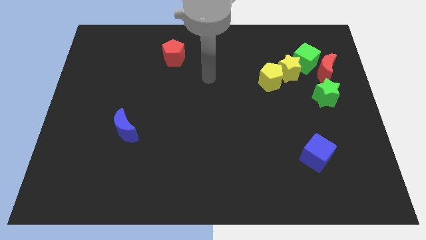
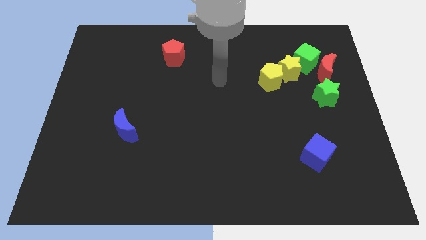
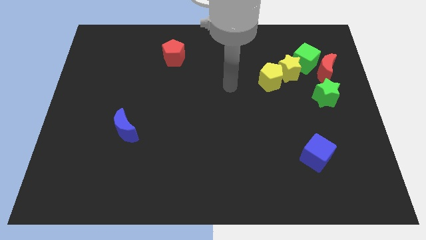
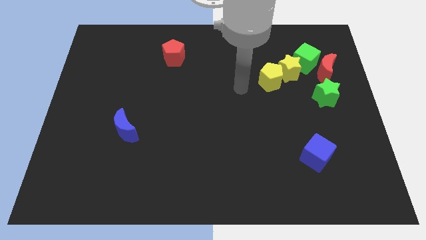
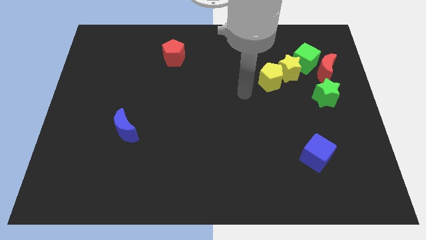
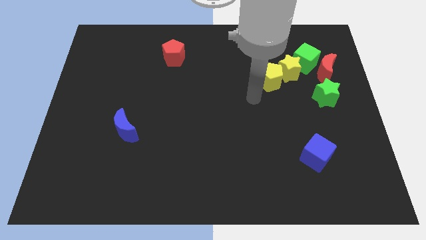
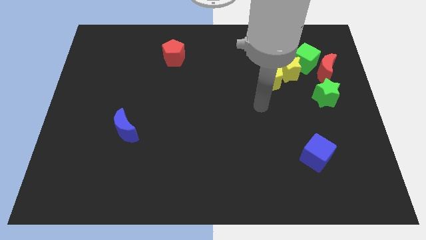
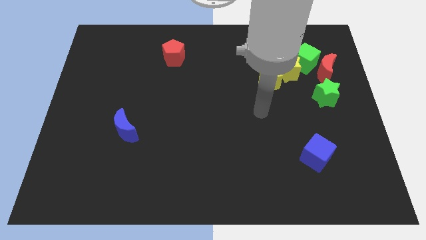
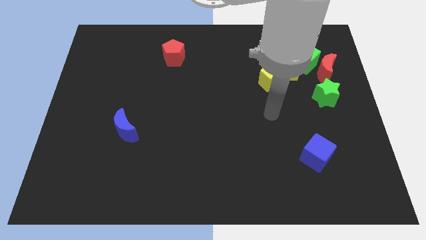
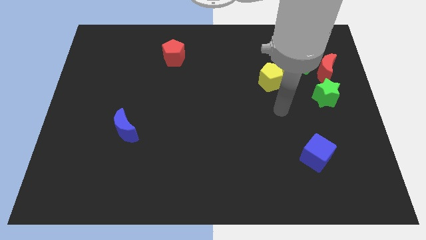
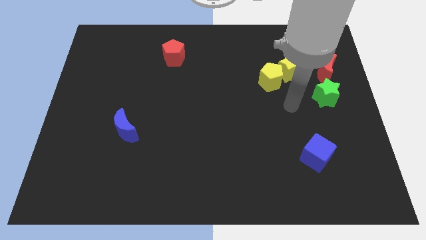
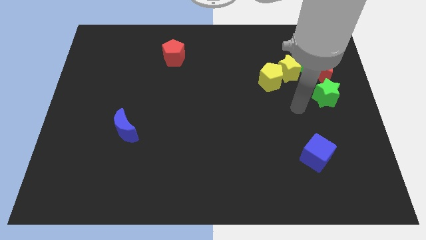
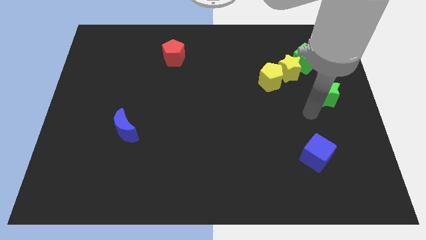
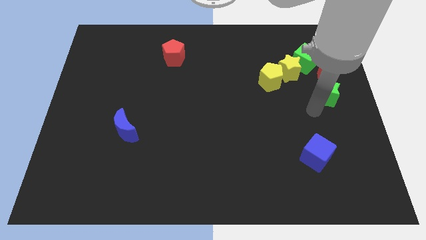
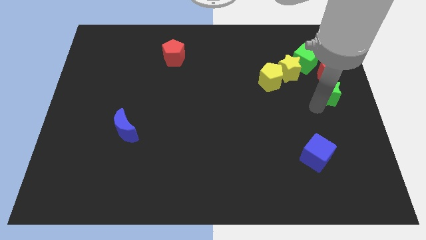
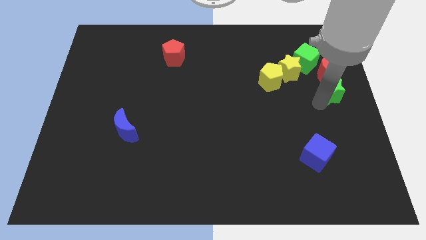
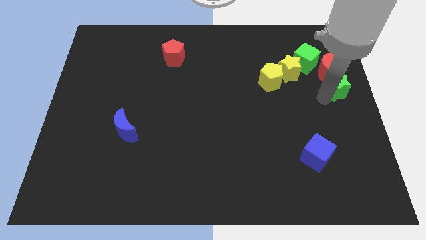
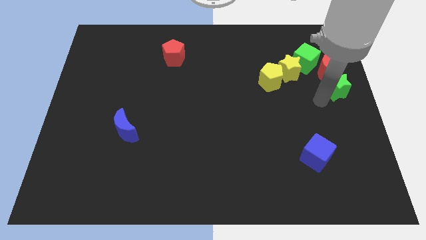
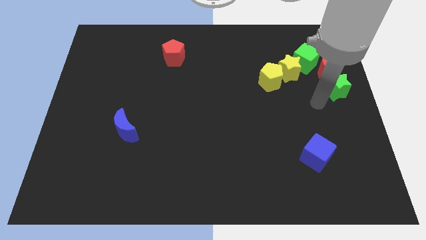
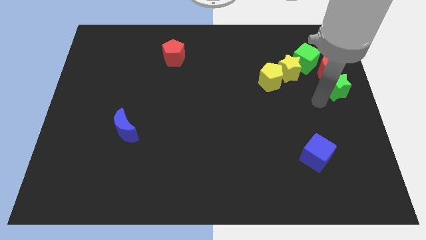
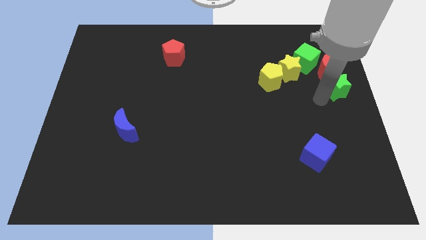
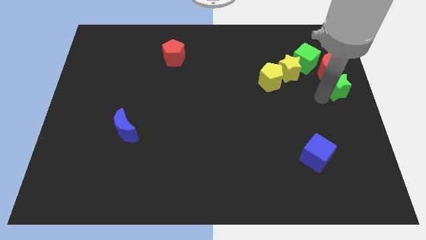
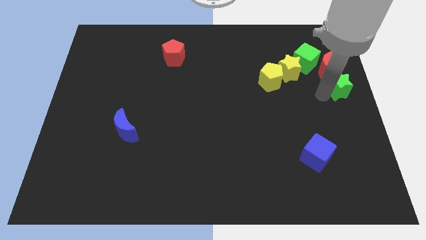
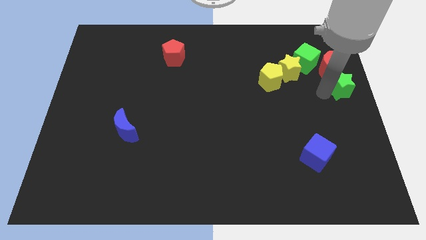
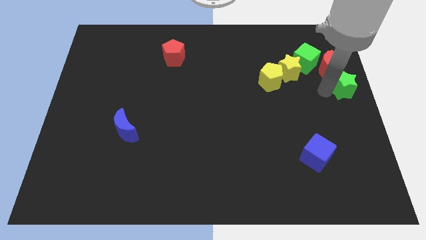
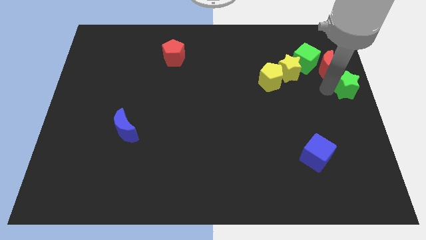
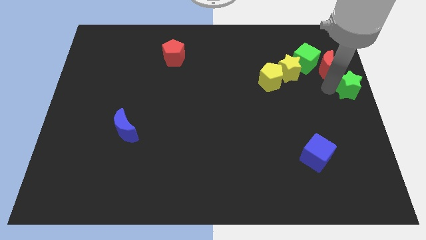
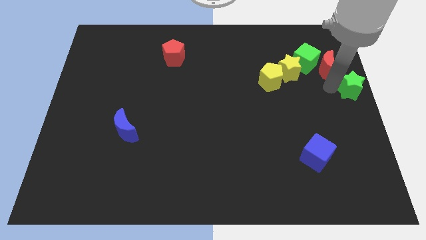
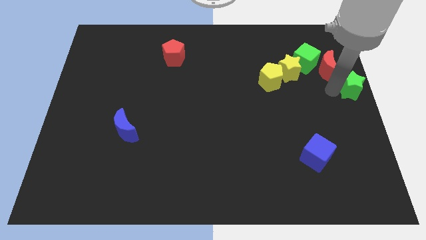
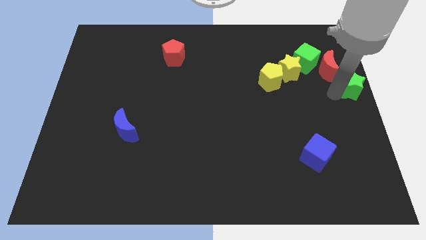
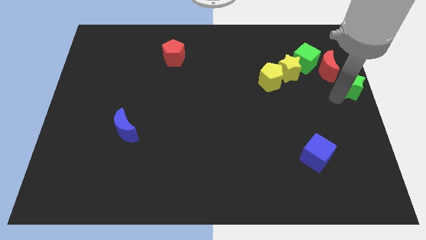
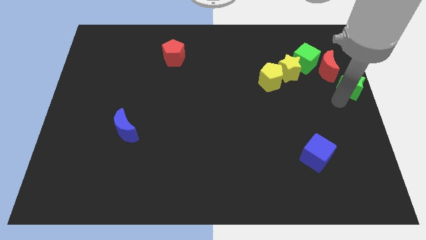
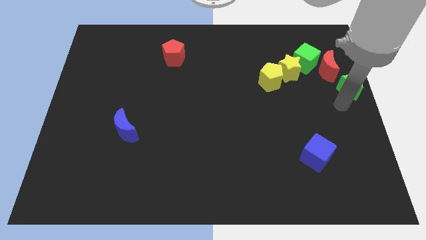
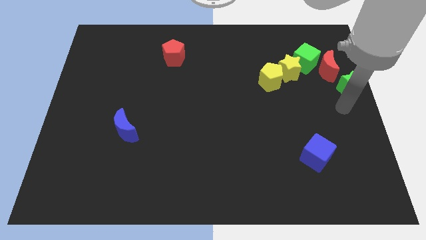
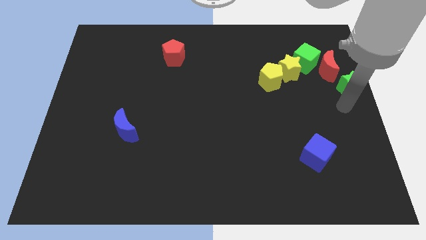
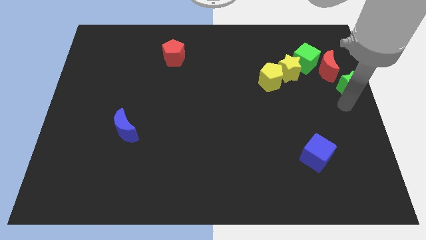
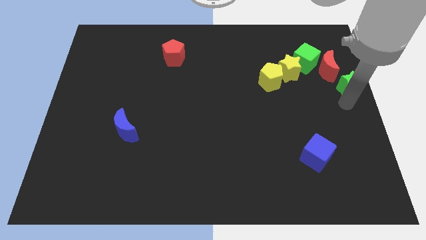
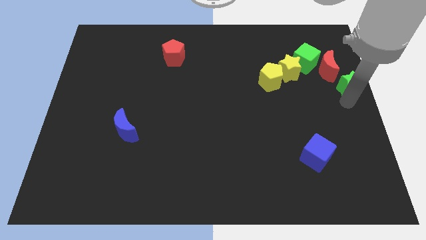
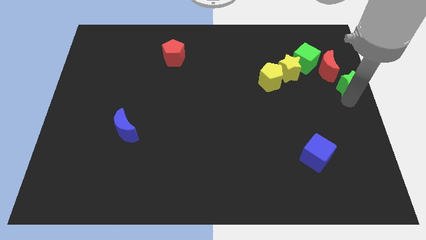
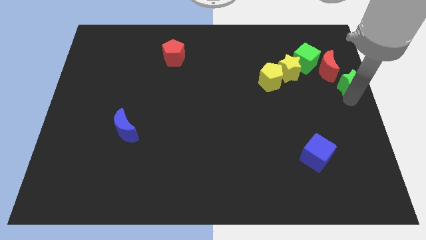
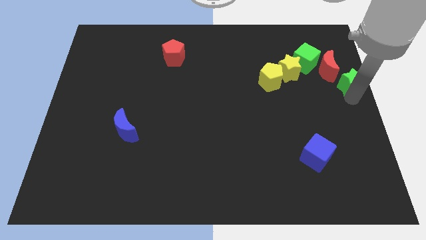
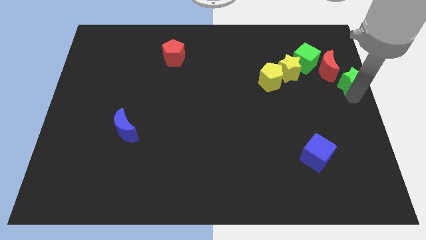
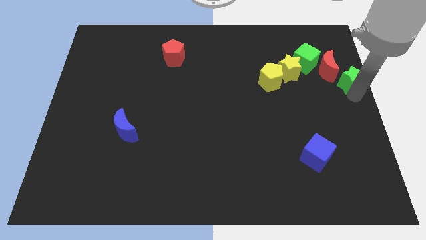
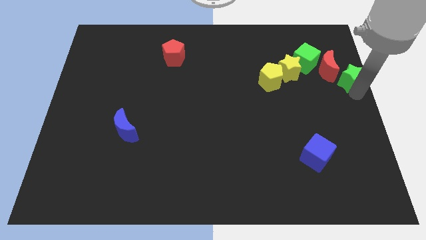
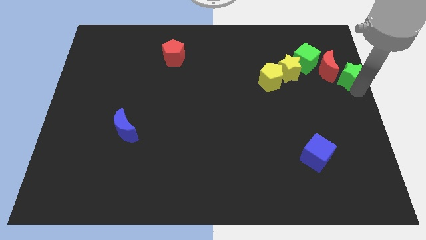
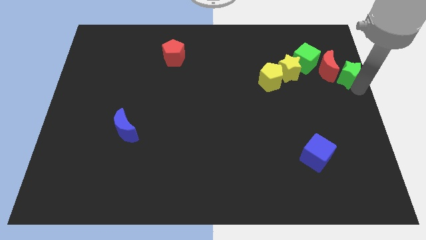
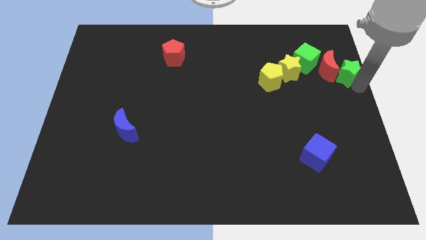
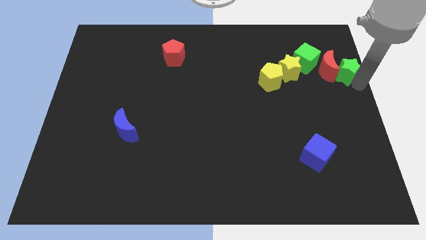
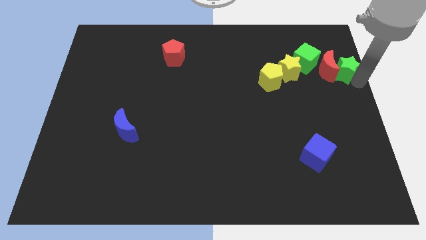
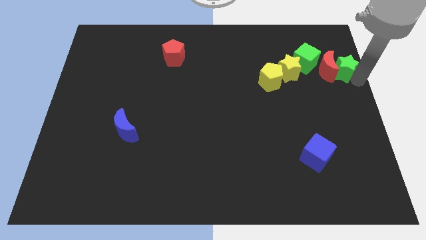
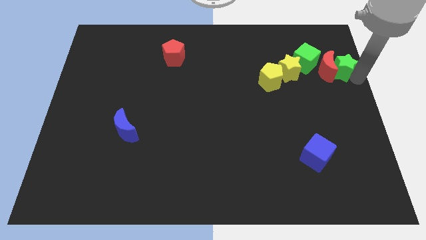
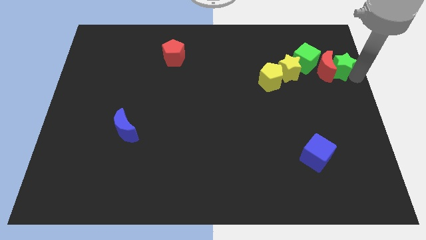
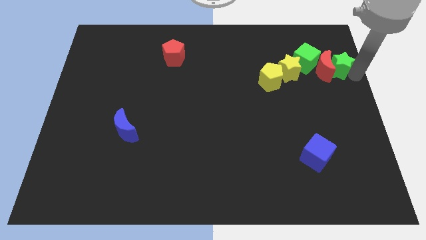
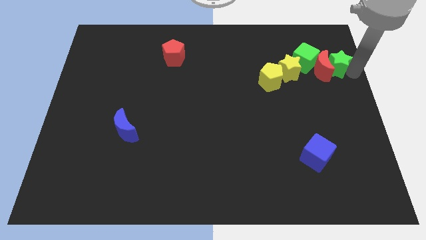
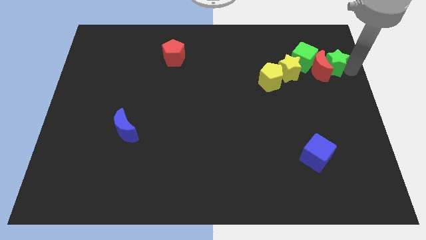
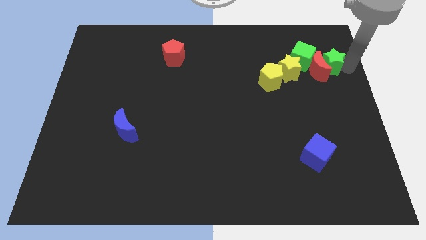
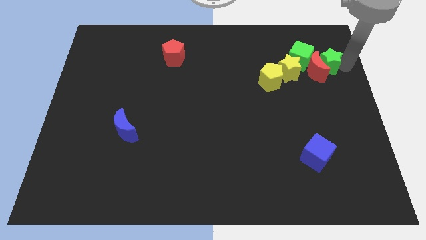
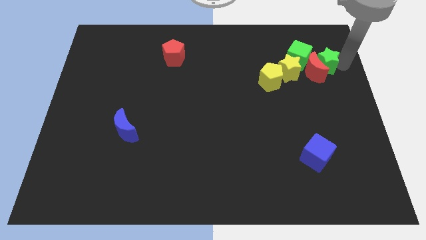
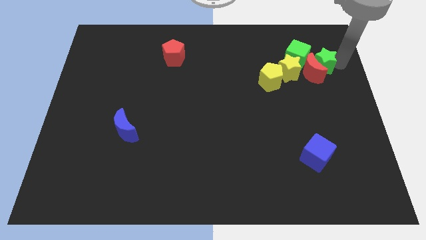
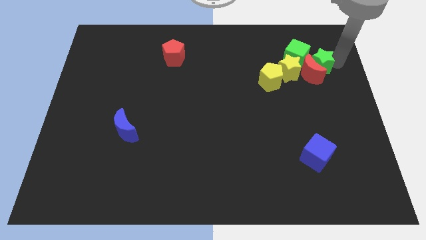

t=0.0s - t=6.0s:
push the green star diagonally up and to the right of the yellow star

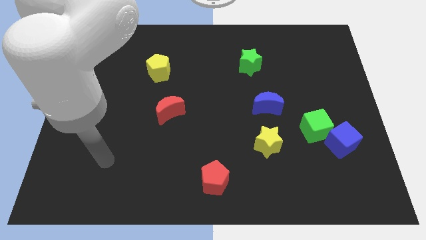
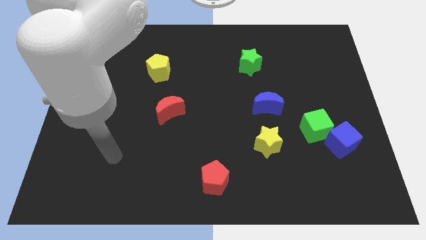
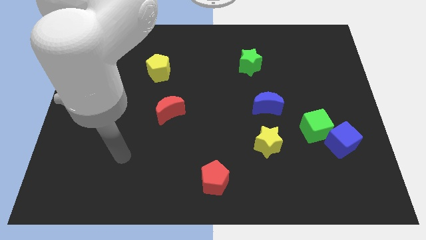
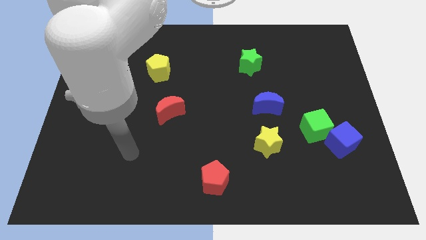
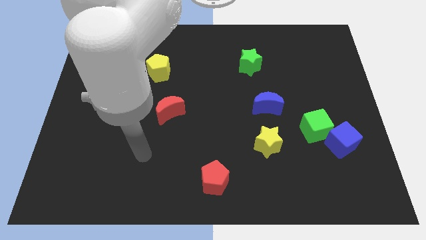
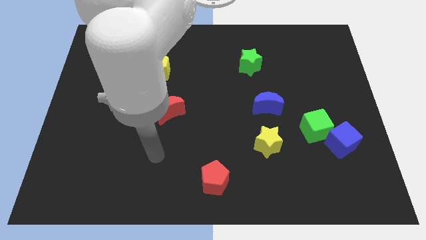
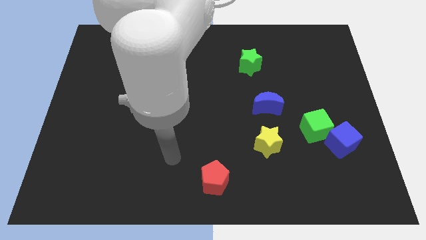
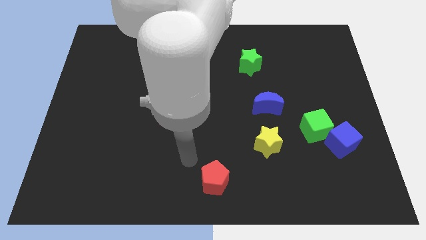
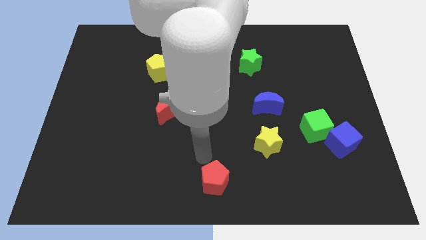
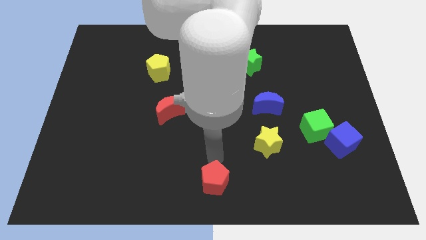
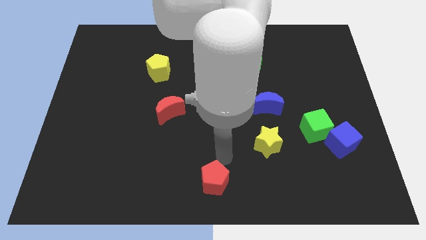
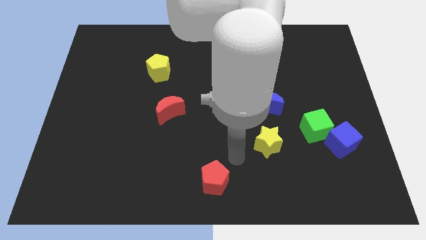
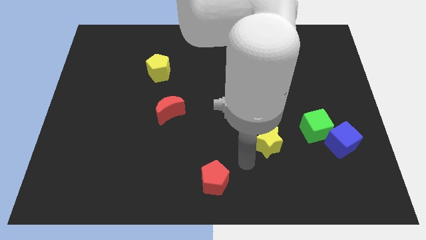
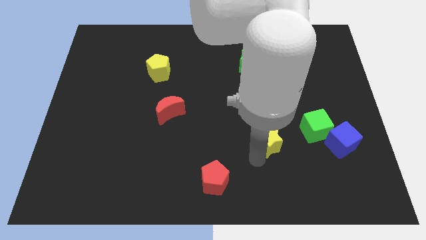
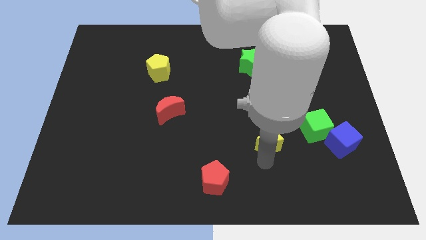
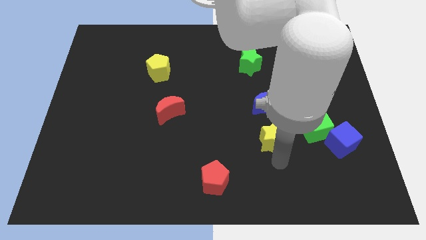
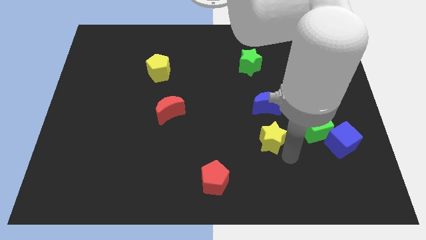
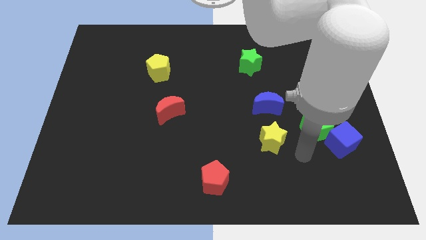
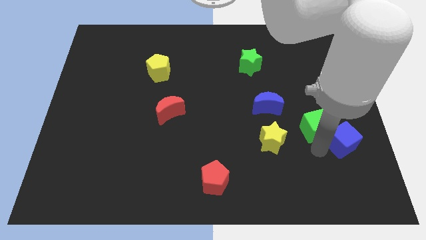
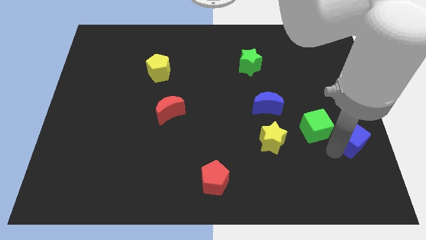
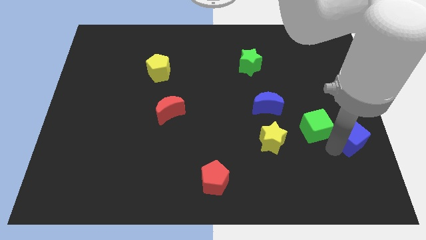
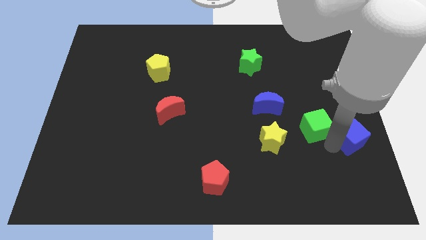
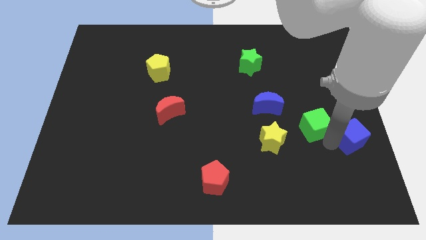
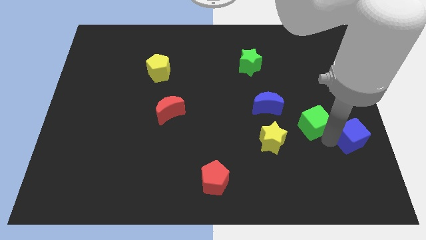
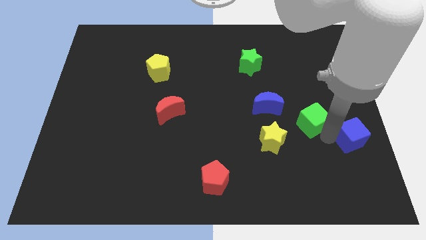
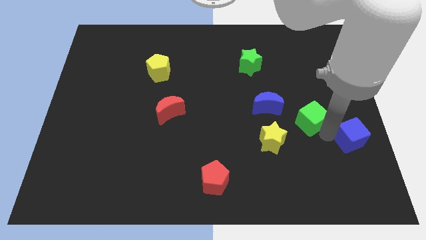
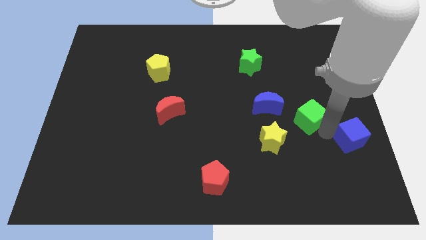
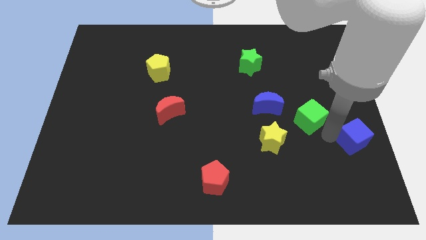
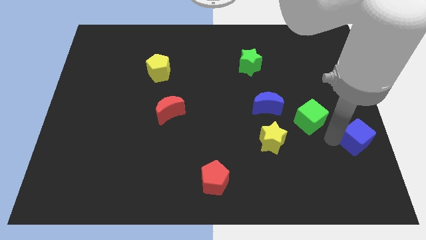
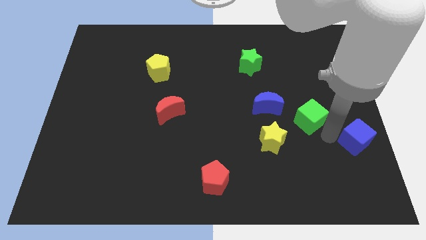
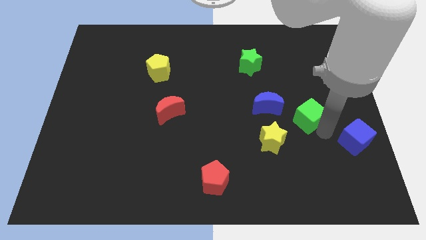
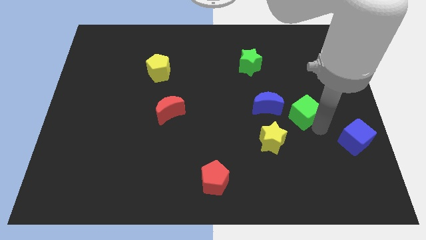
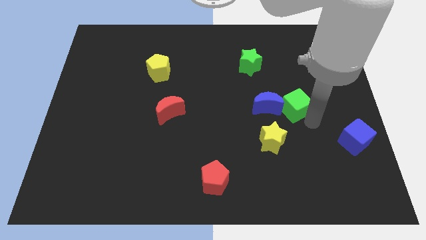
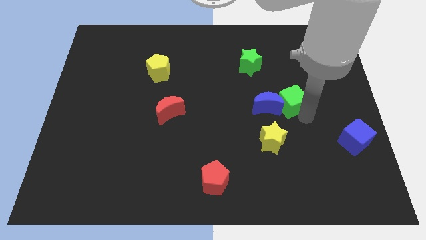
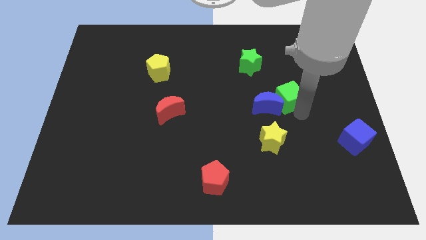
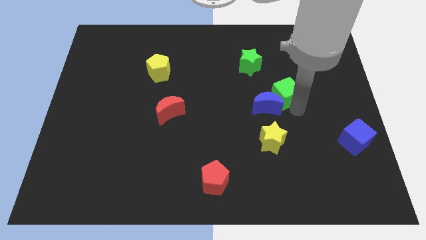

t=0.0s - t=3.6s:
slide the green cube to the bottom right of the green star
